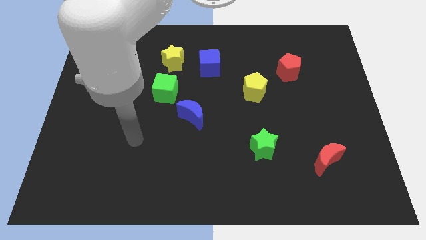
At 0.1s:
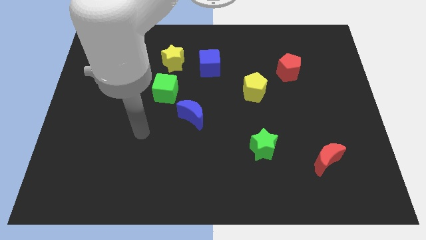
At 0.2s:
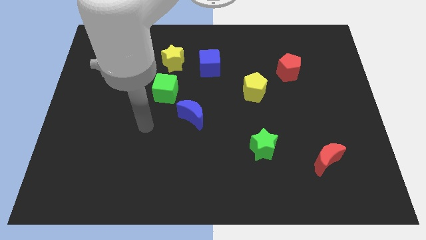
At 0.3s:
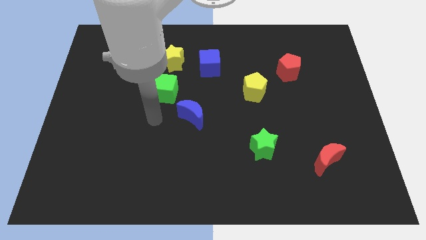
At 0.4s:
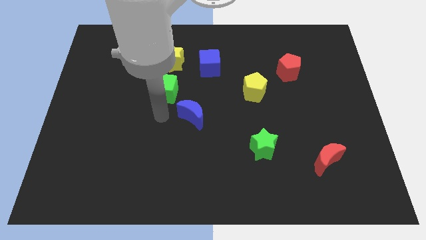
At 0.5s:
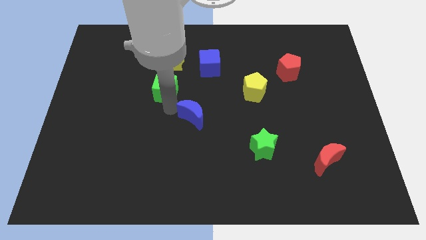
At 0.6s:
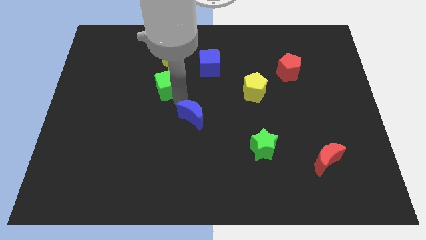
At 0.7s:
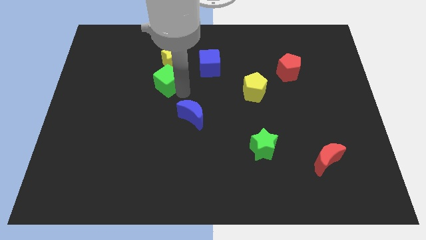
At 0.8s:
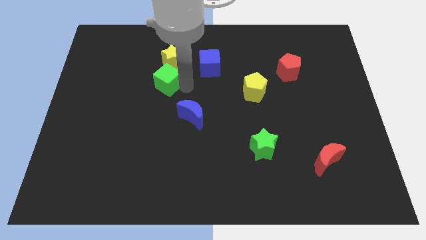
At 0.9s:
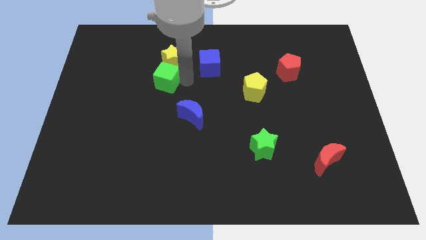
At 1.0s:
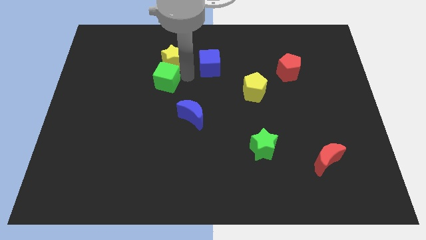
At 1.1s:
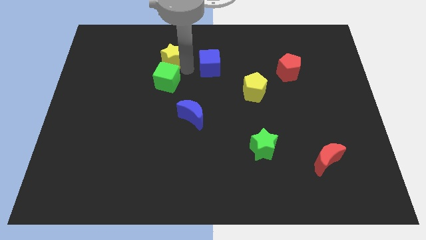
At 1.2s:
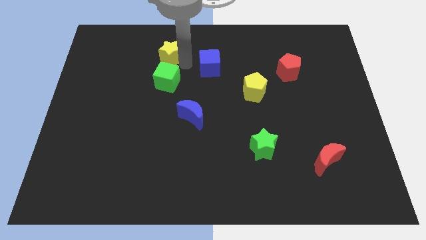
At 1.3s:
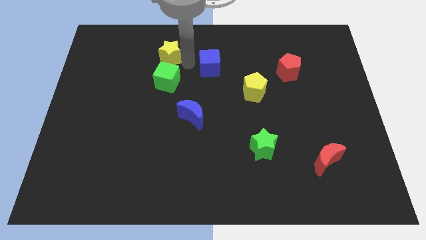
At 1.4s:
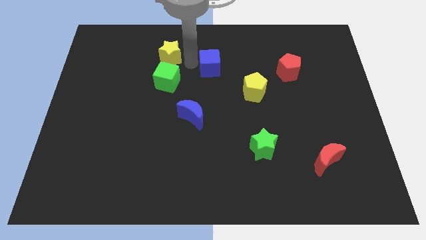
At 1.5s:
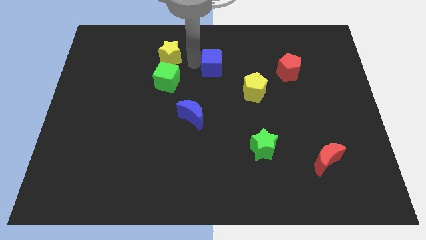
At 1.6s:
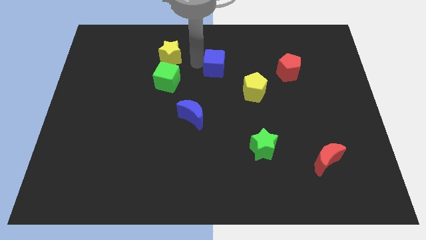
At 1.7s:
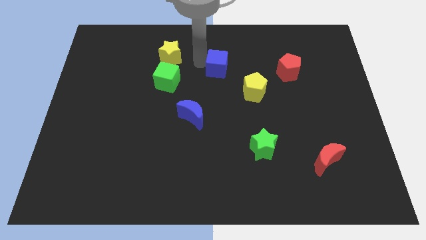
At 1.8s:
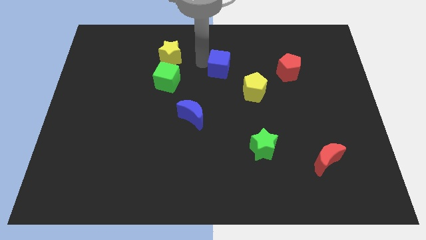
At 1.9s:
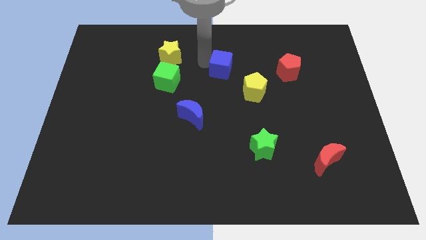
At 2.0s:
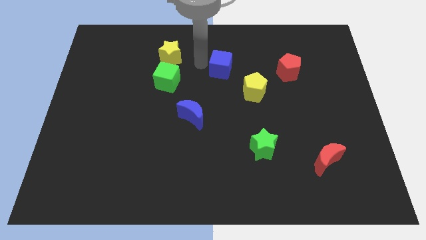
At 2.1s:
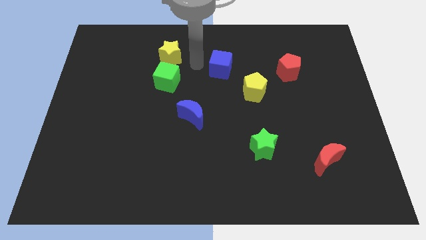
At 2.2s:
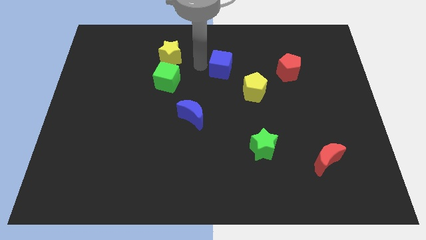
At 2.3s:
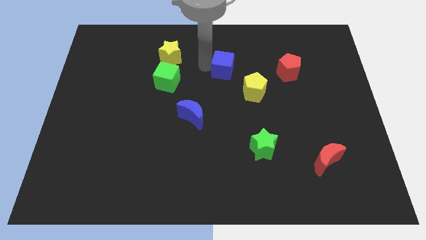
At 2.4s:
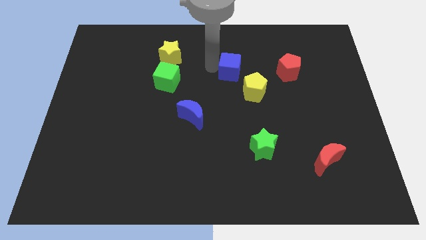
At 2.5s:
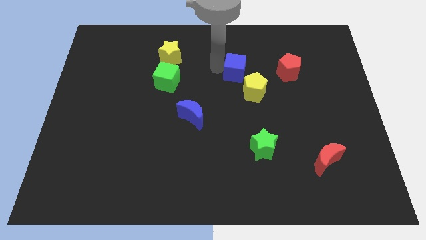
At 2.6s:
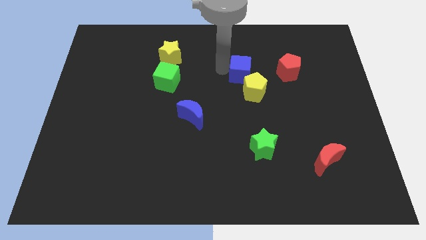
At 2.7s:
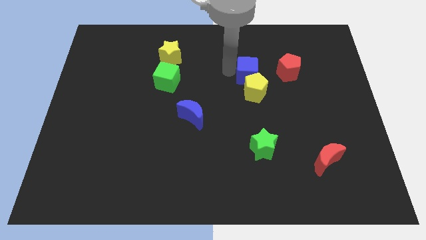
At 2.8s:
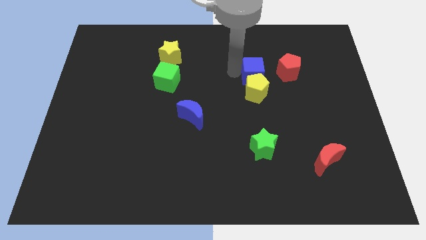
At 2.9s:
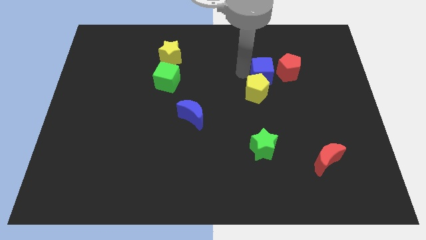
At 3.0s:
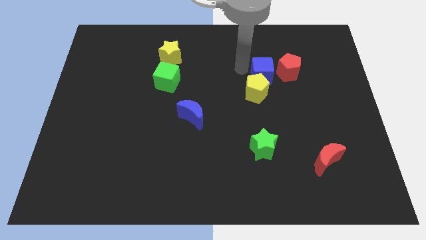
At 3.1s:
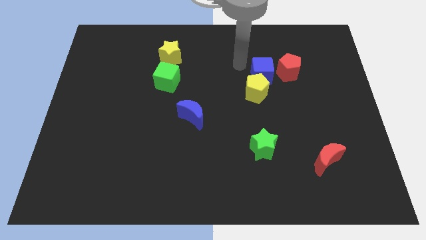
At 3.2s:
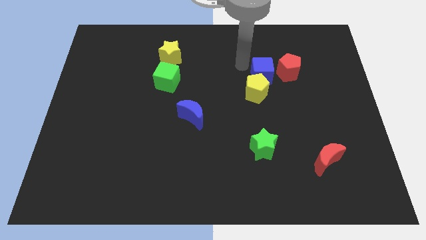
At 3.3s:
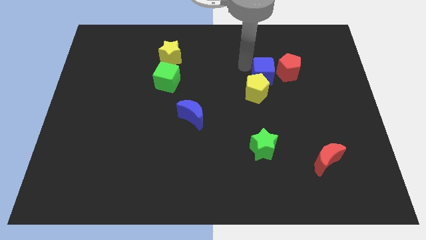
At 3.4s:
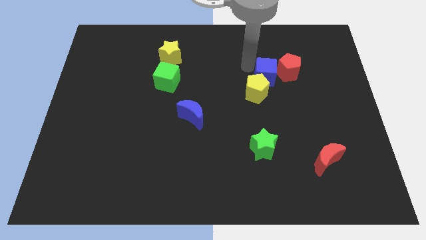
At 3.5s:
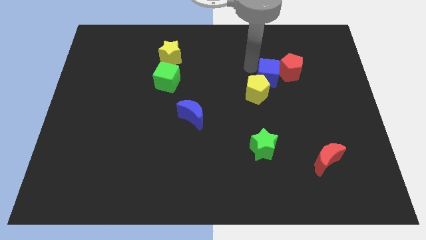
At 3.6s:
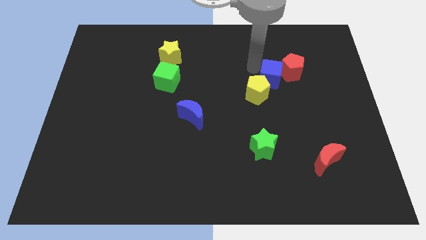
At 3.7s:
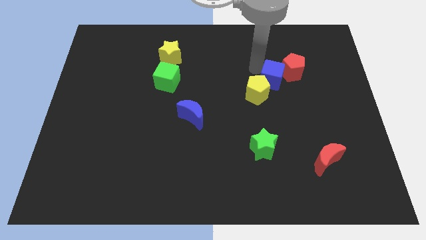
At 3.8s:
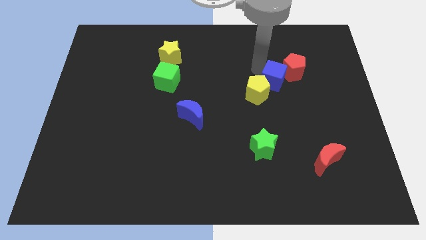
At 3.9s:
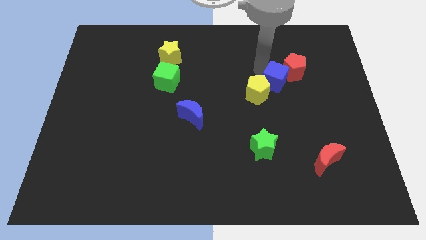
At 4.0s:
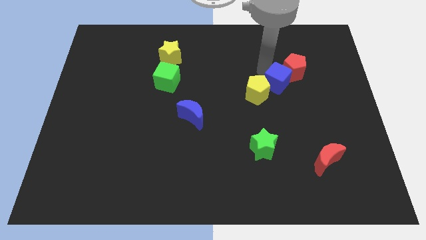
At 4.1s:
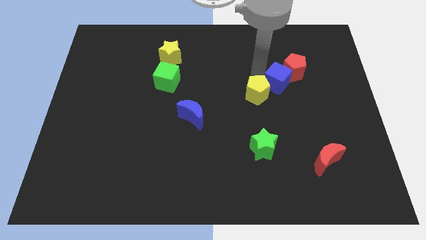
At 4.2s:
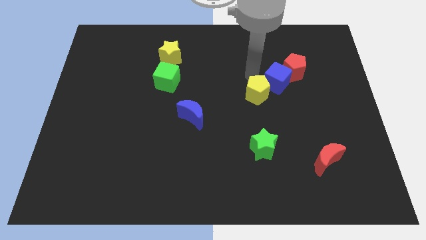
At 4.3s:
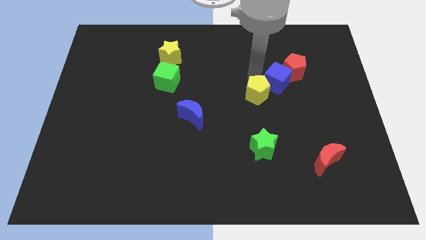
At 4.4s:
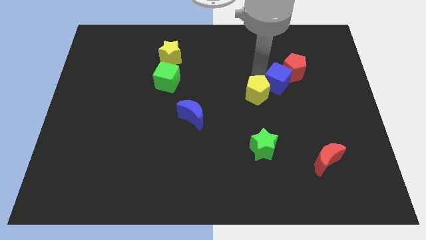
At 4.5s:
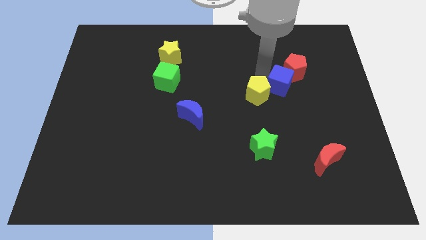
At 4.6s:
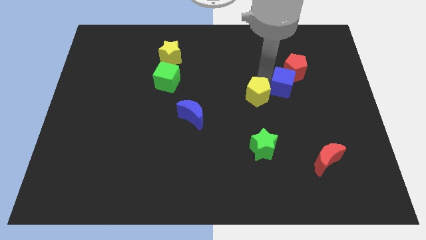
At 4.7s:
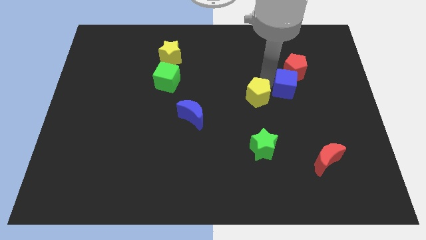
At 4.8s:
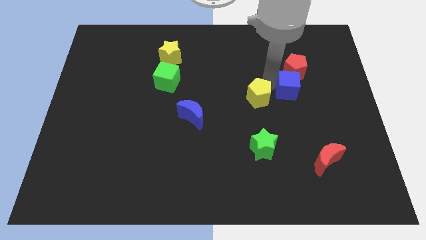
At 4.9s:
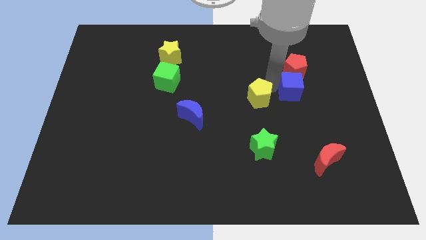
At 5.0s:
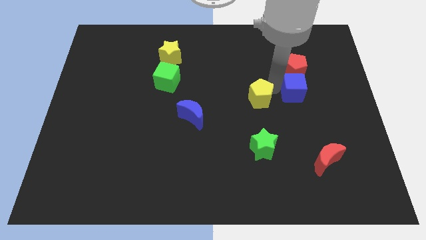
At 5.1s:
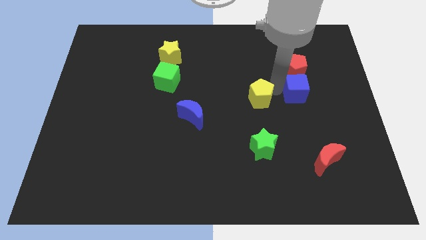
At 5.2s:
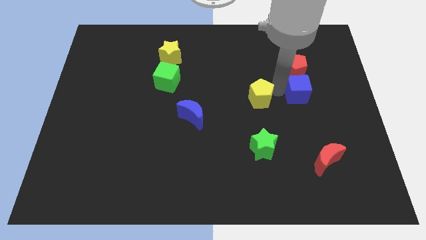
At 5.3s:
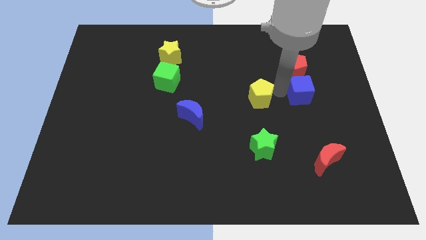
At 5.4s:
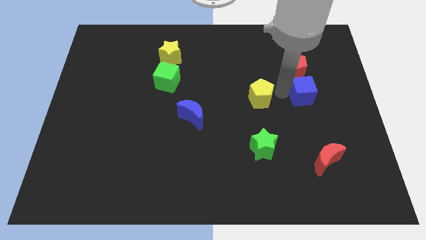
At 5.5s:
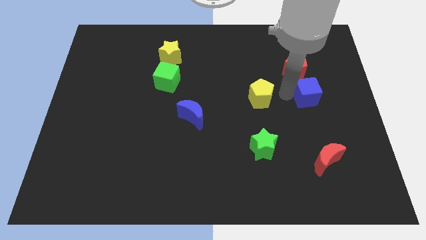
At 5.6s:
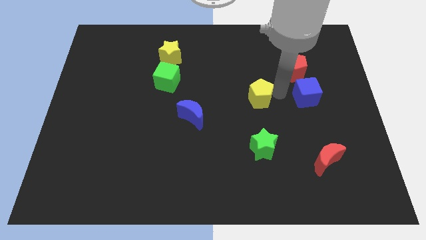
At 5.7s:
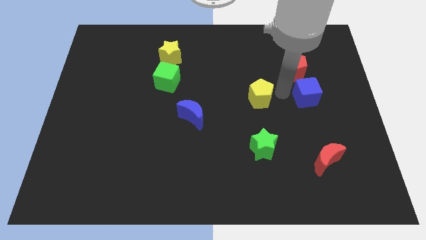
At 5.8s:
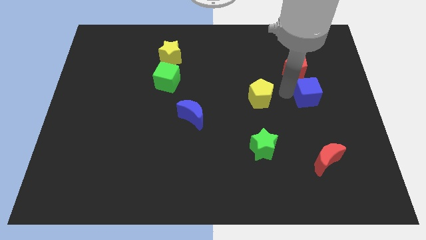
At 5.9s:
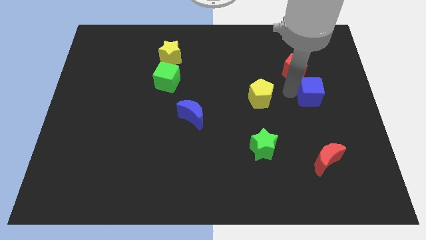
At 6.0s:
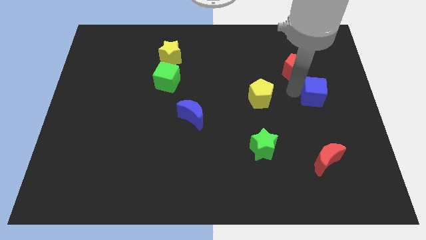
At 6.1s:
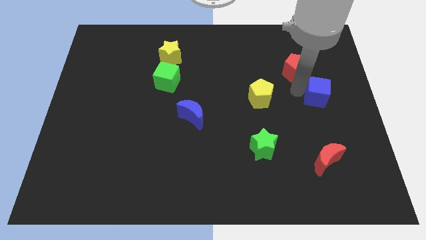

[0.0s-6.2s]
move the blue cube to the center right
